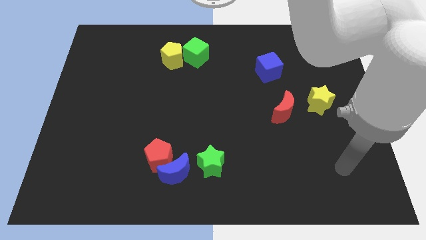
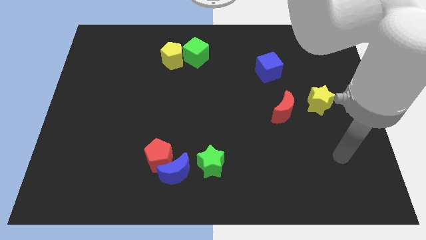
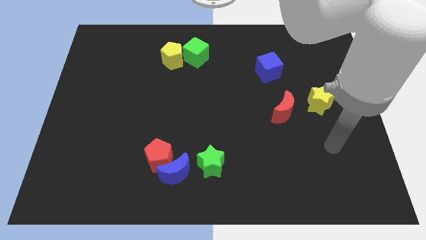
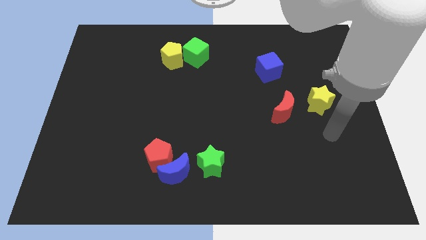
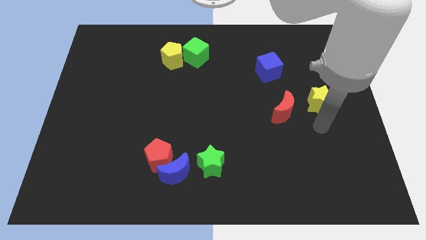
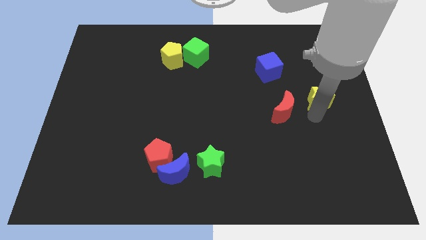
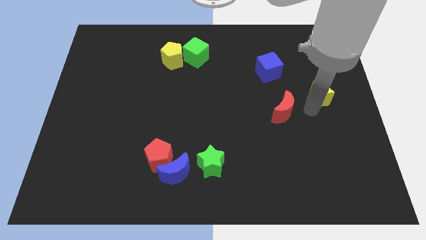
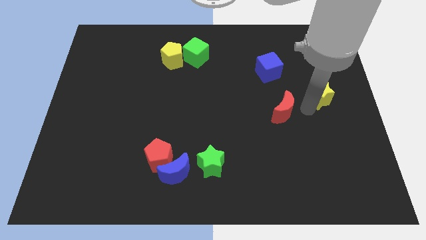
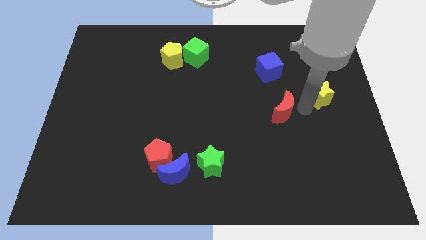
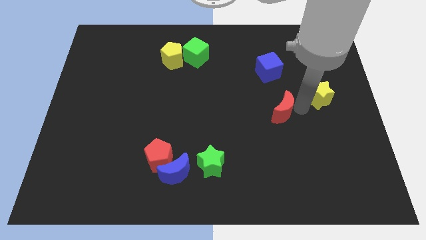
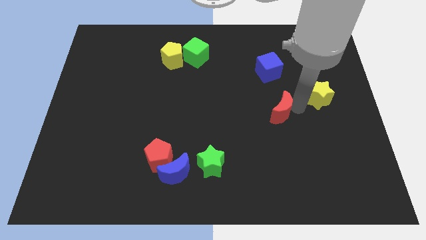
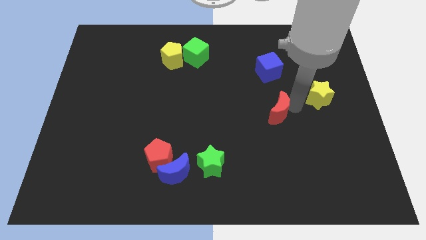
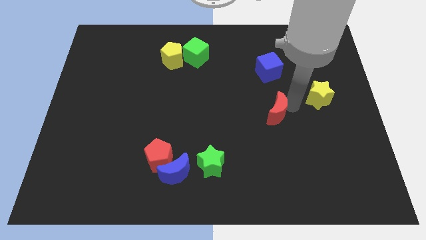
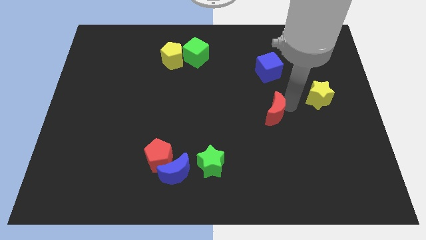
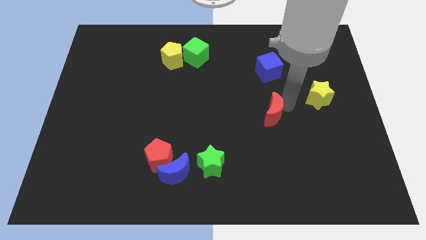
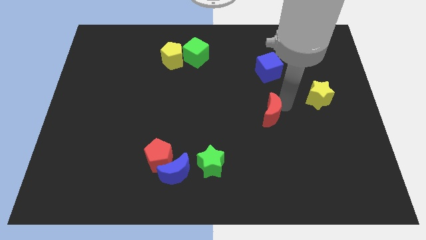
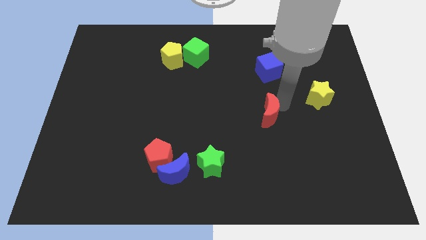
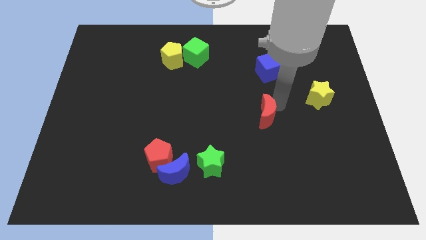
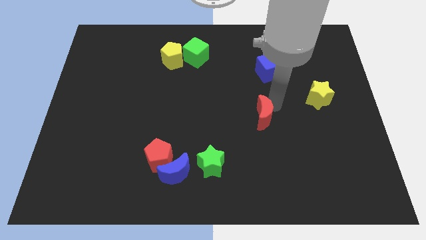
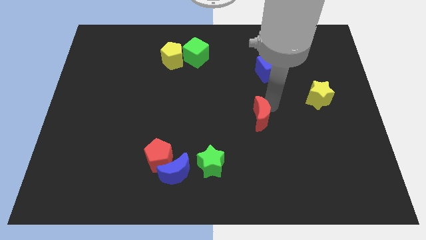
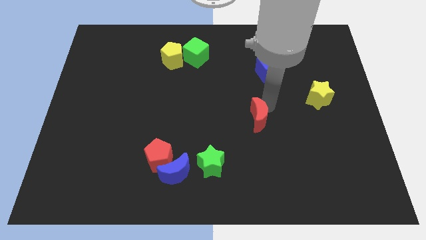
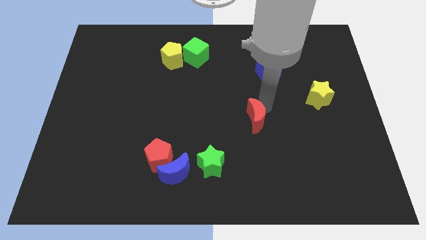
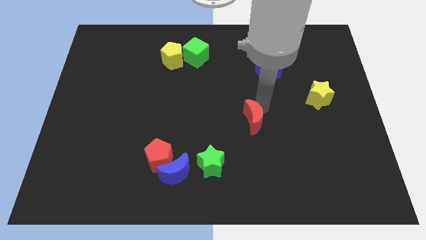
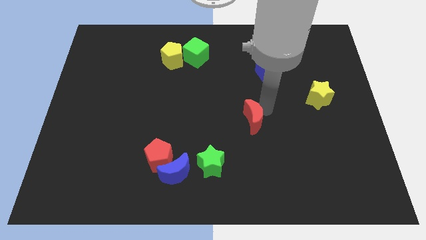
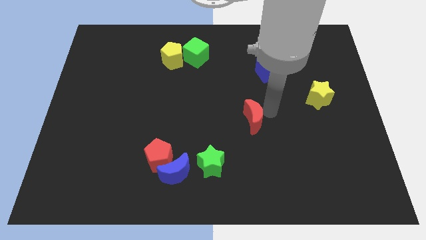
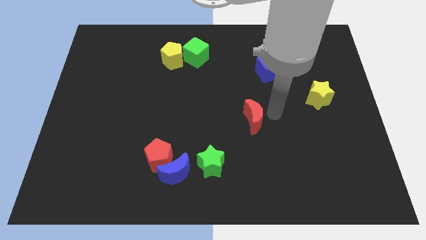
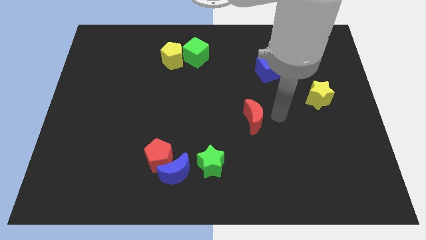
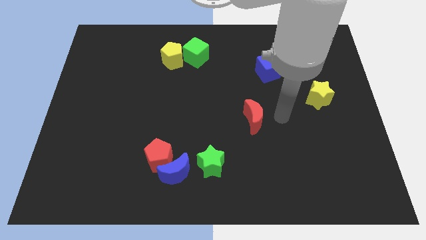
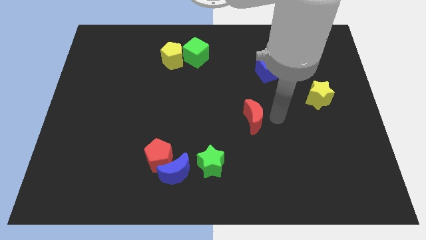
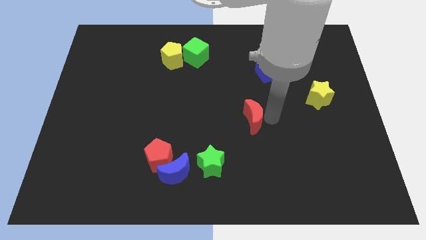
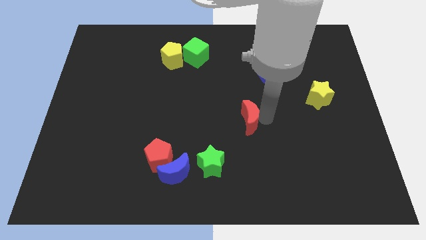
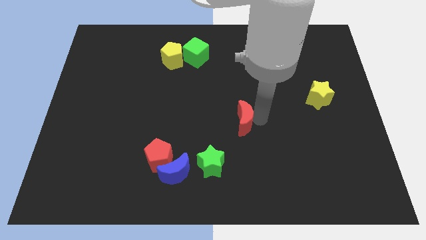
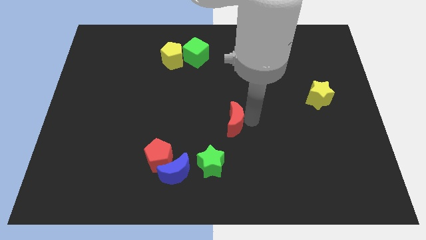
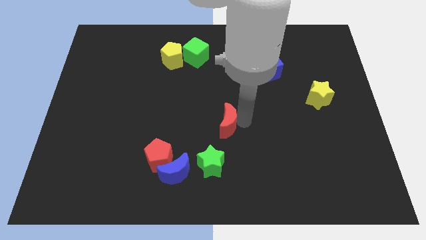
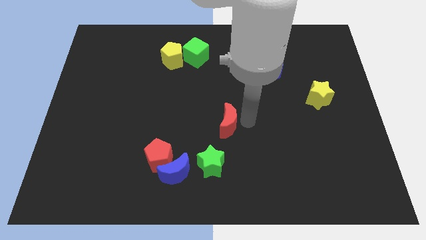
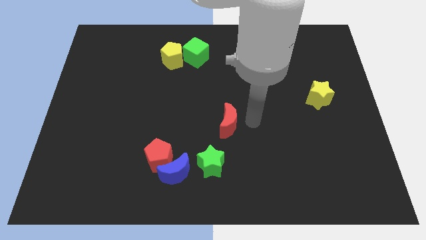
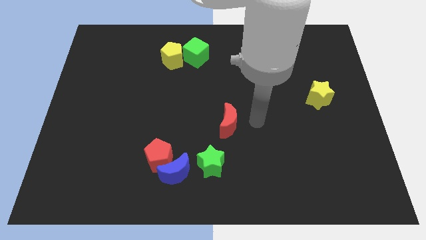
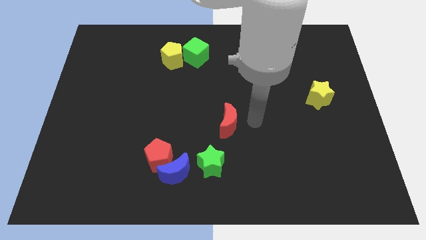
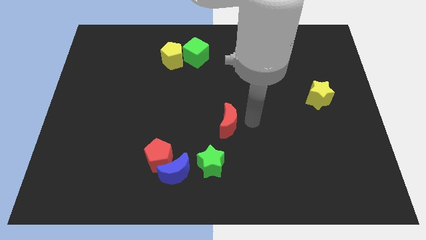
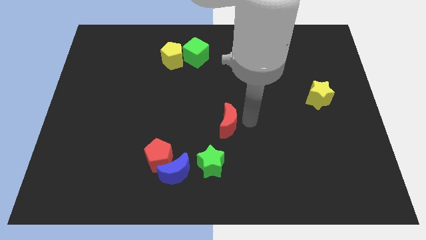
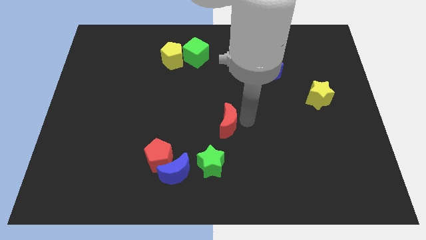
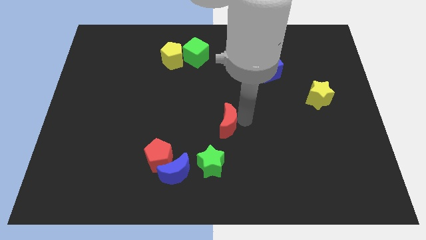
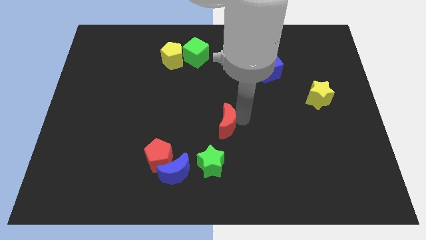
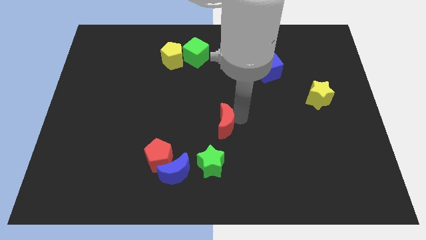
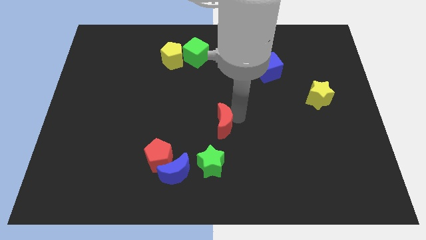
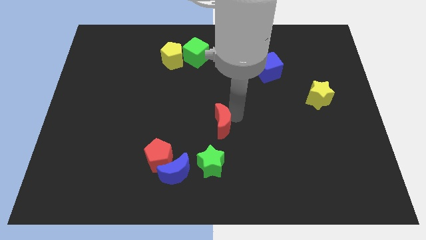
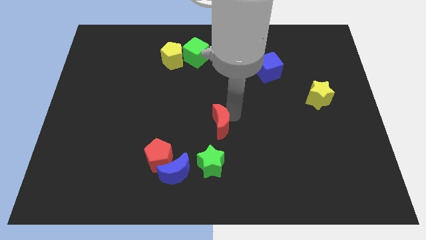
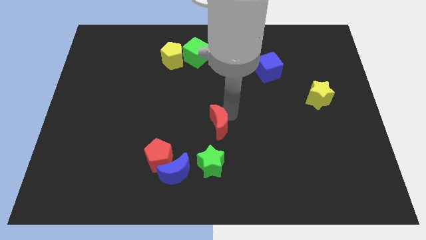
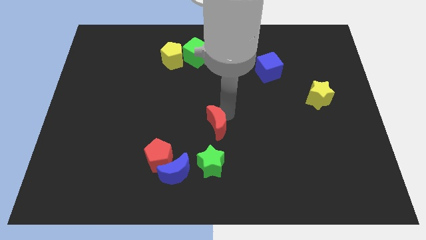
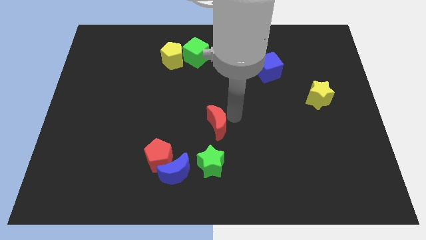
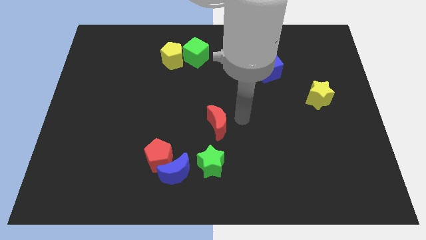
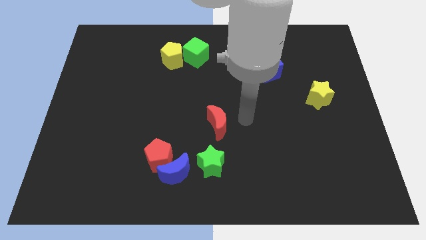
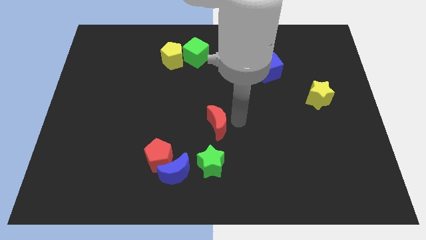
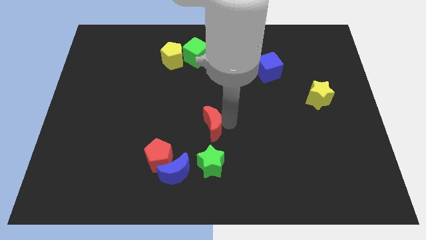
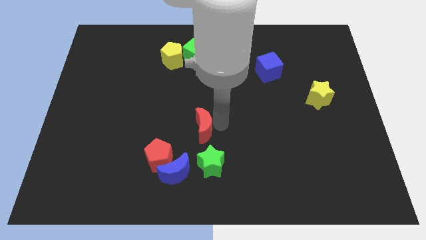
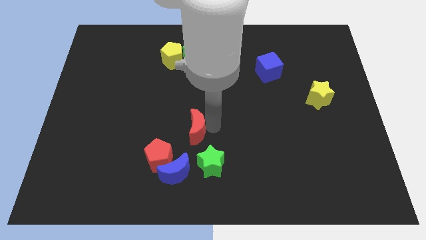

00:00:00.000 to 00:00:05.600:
put the red moon to the top side of the blue moon

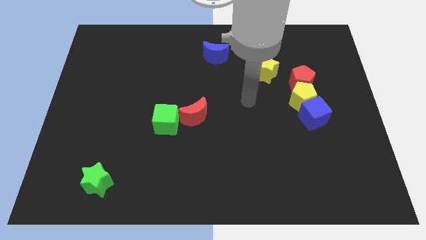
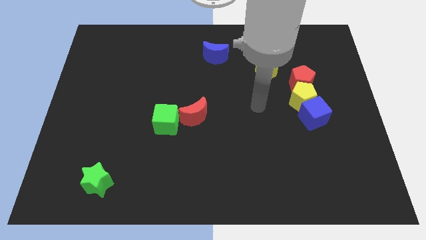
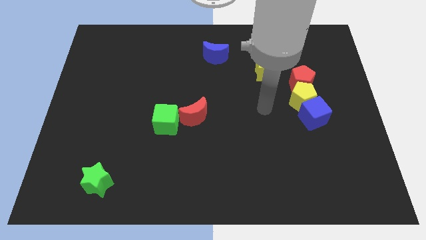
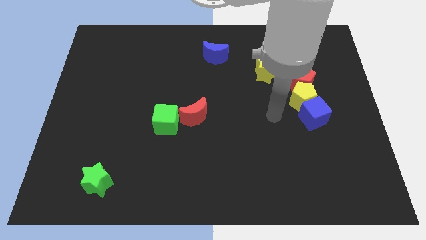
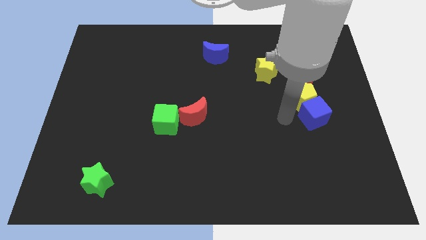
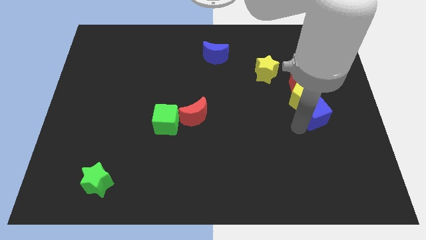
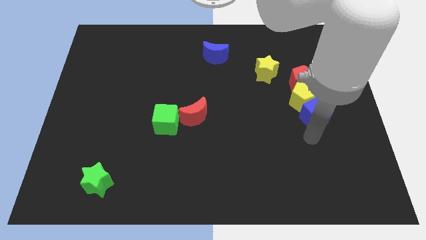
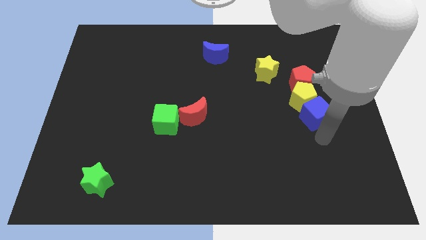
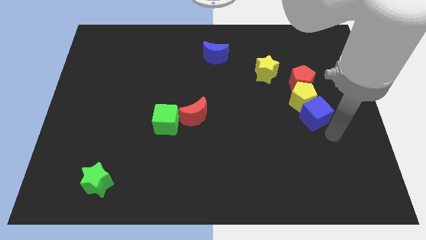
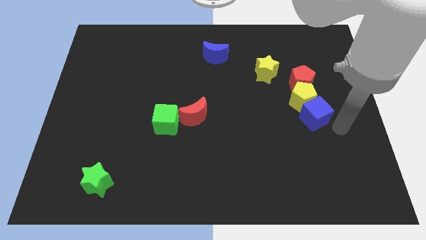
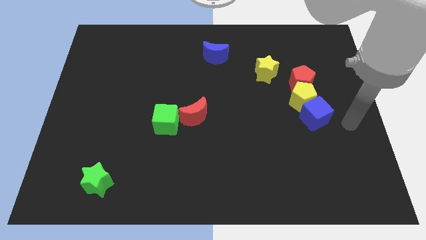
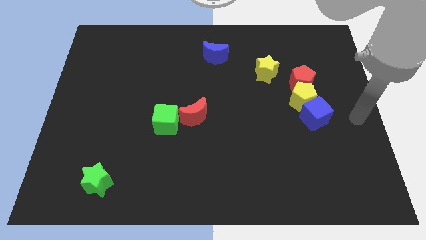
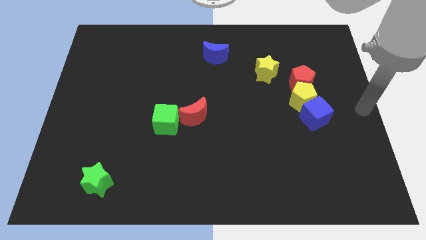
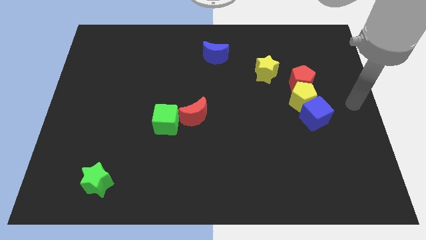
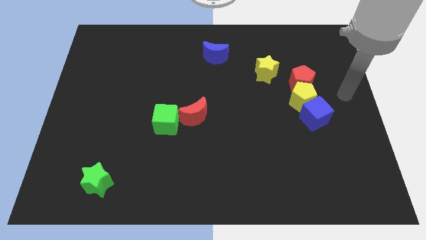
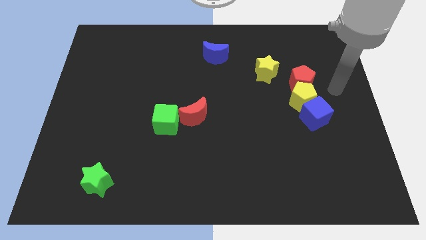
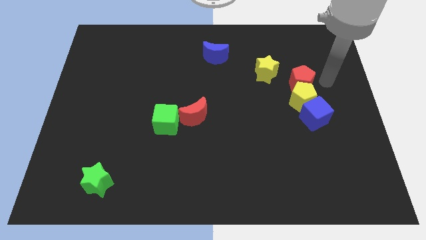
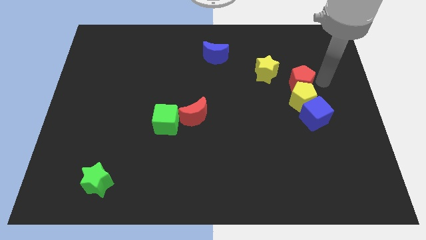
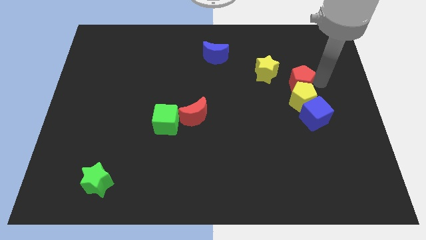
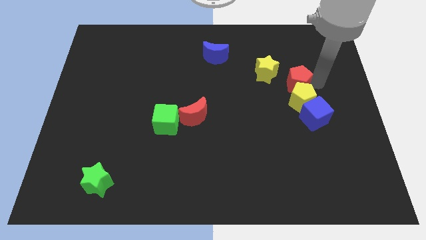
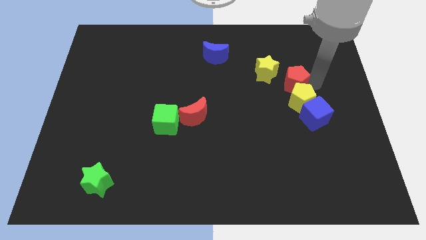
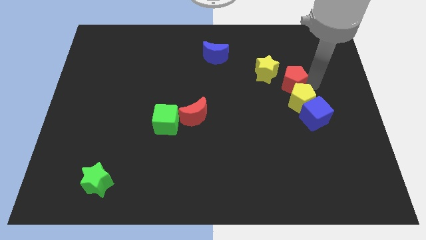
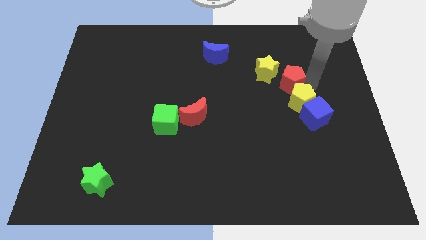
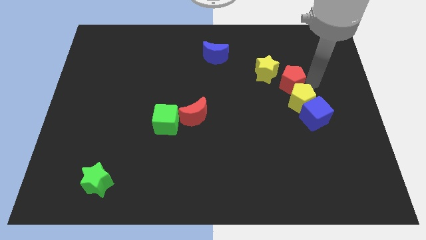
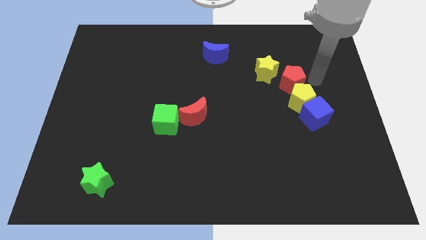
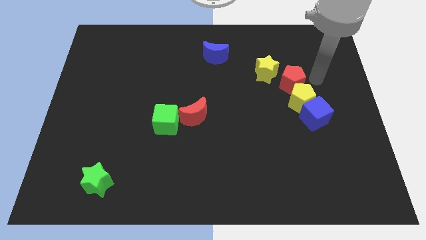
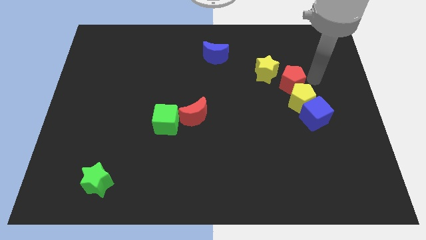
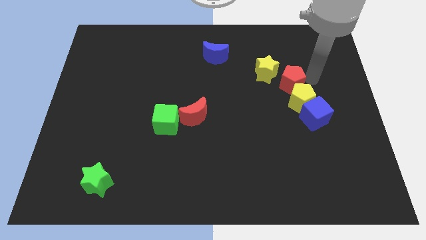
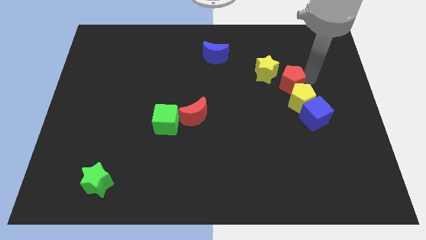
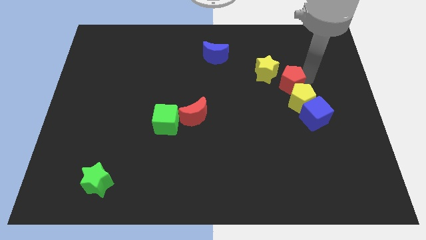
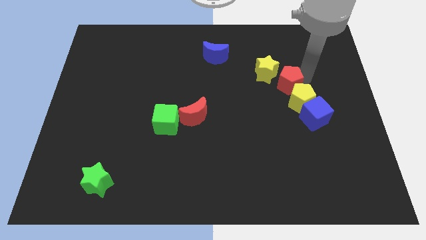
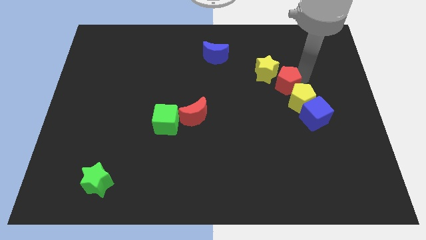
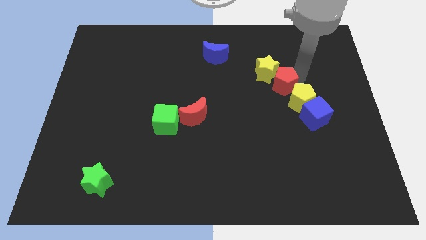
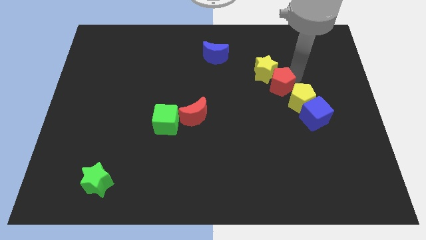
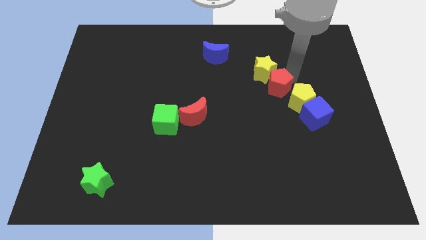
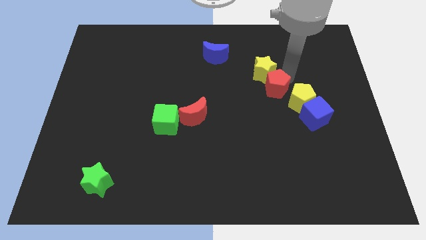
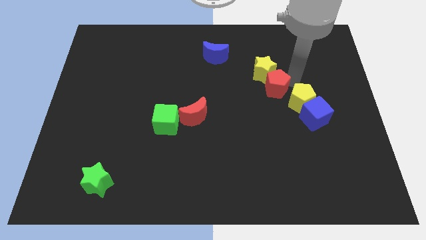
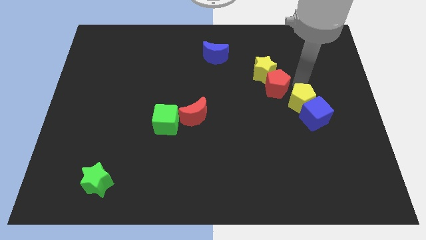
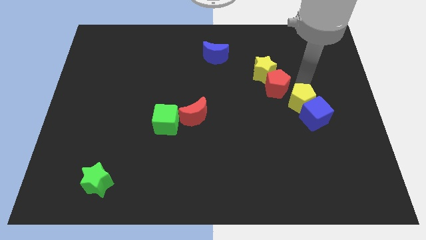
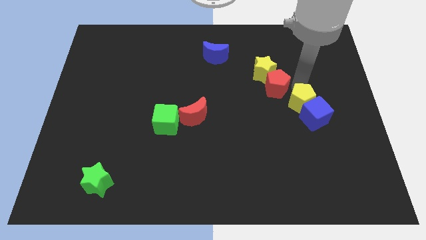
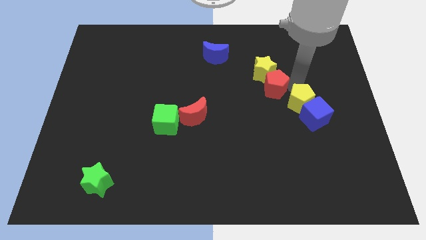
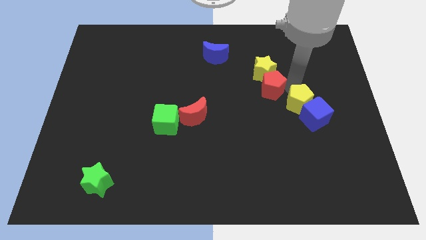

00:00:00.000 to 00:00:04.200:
put the red pentagon diagonally down and to the left of the yellow star
